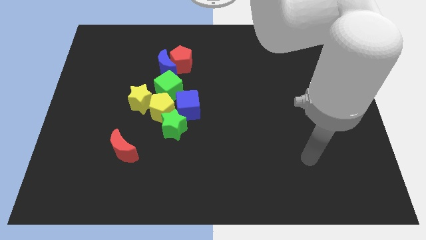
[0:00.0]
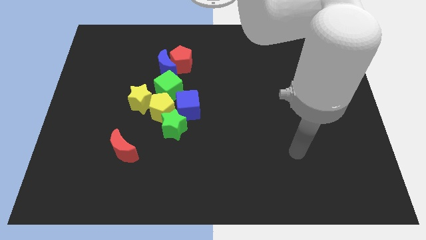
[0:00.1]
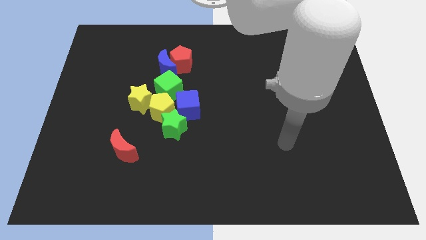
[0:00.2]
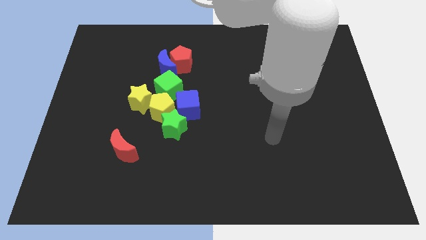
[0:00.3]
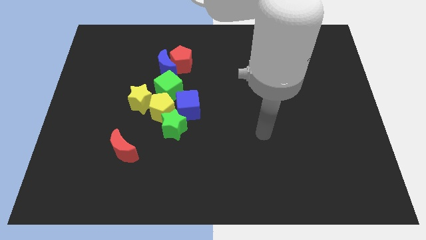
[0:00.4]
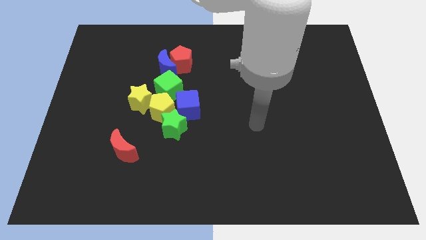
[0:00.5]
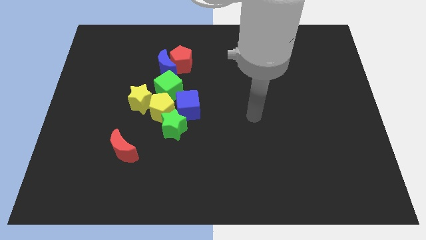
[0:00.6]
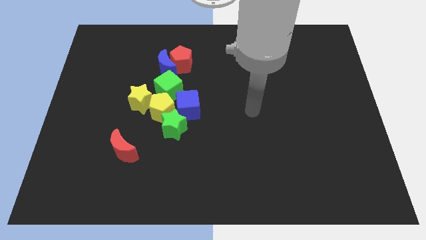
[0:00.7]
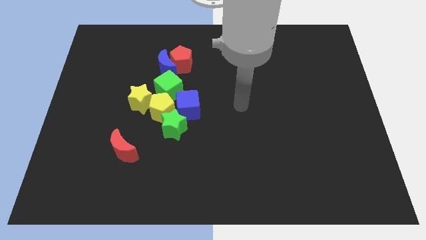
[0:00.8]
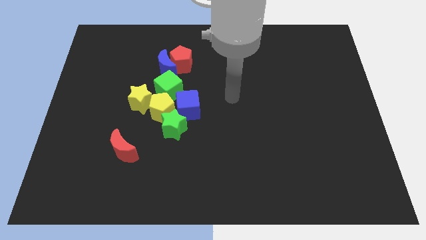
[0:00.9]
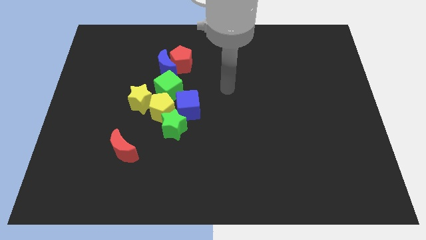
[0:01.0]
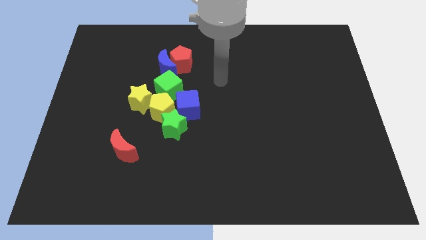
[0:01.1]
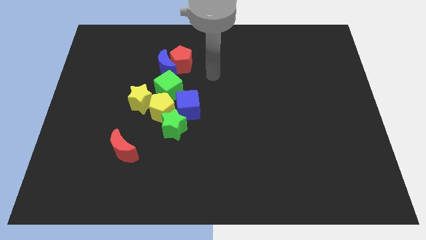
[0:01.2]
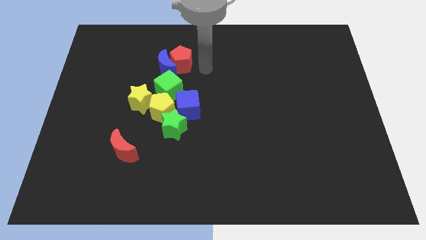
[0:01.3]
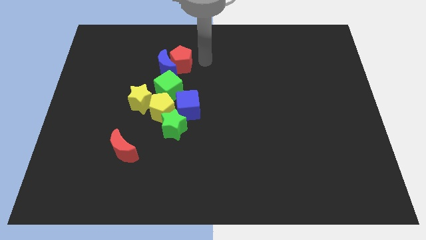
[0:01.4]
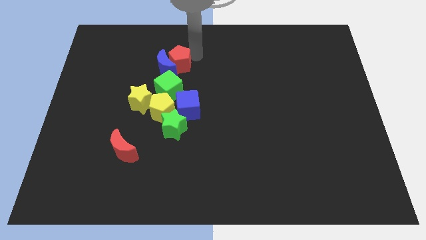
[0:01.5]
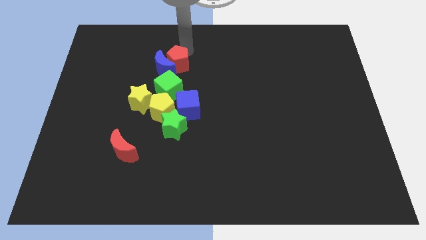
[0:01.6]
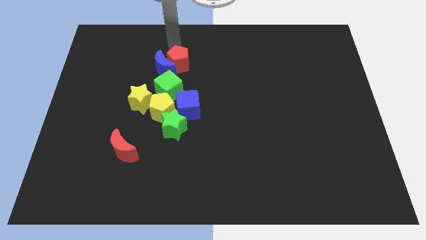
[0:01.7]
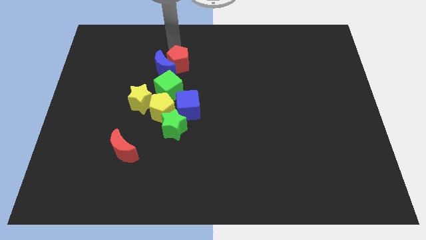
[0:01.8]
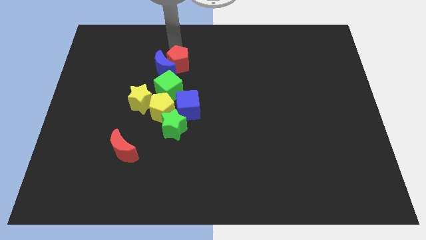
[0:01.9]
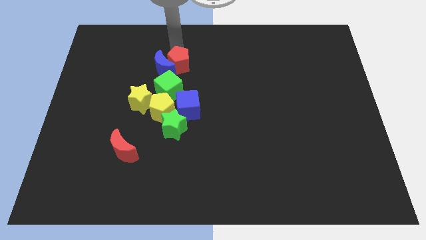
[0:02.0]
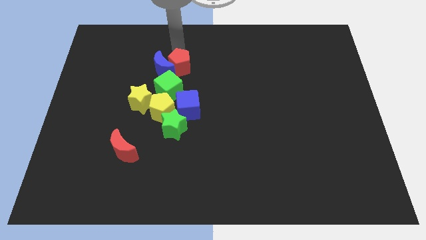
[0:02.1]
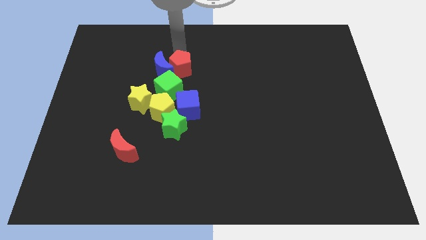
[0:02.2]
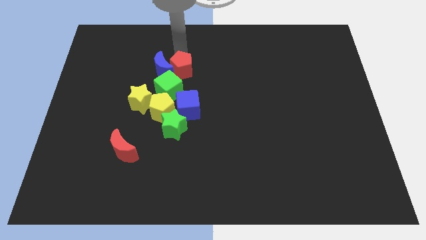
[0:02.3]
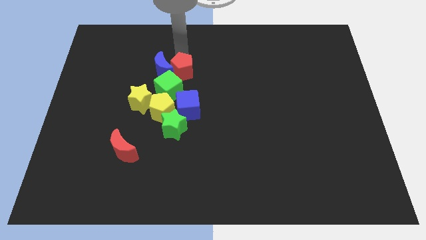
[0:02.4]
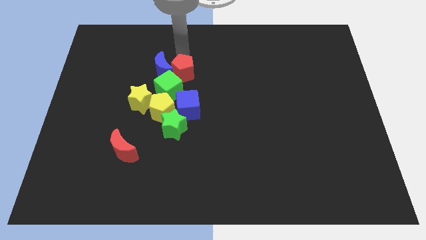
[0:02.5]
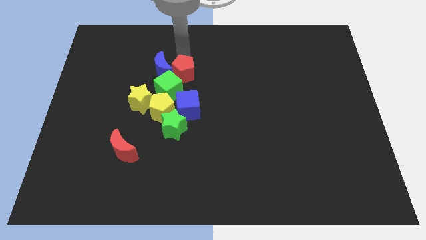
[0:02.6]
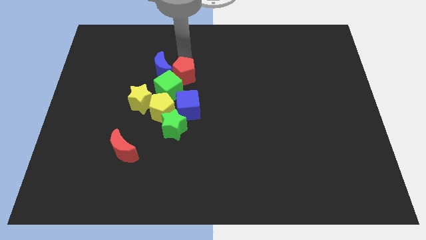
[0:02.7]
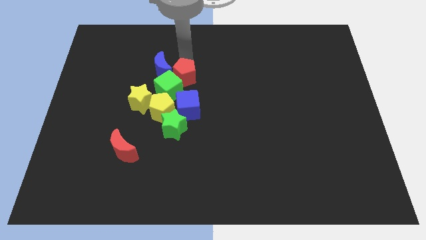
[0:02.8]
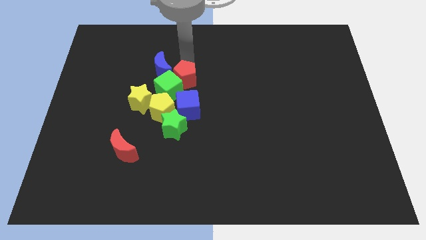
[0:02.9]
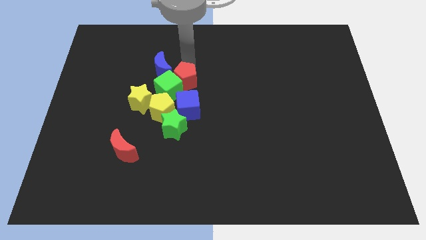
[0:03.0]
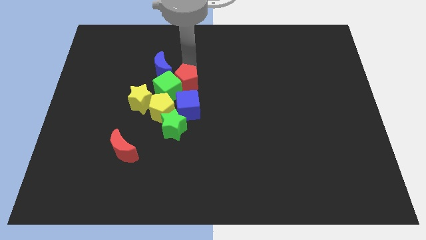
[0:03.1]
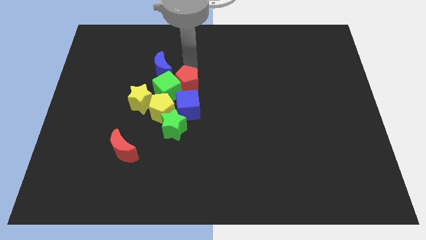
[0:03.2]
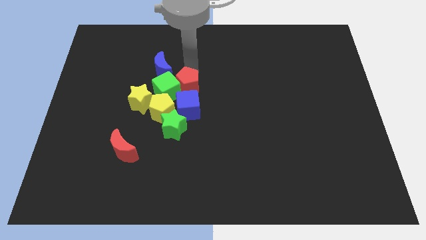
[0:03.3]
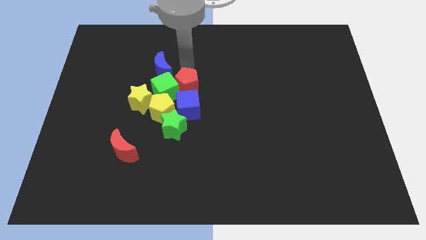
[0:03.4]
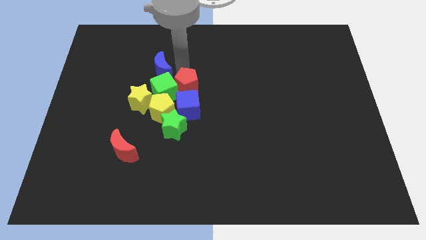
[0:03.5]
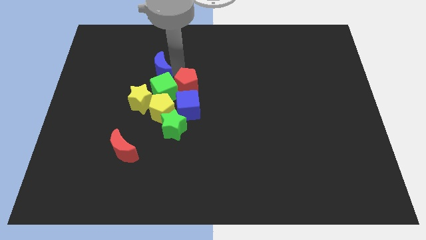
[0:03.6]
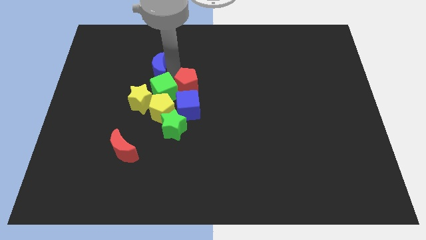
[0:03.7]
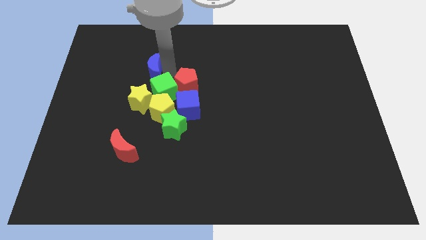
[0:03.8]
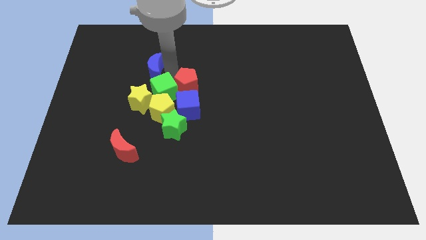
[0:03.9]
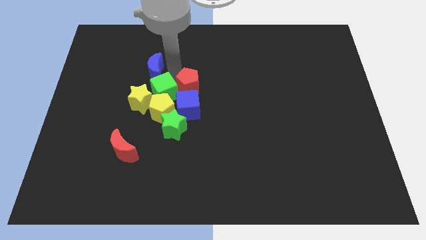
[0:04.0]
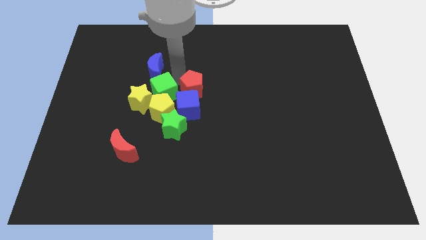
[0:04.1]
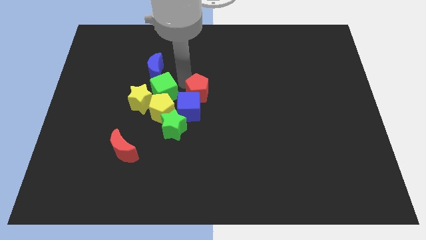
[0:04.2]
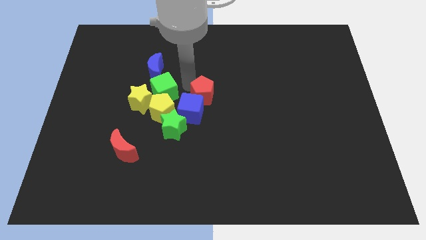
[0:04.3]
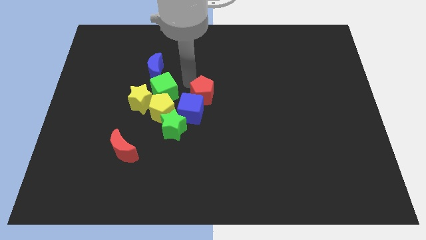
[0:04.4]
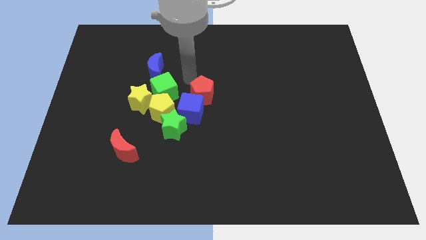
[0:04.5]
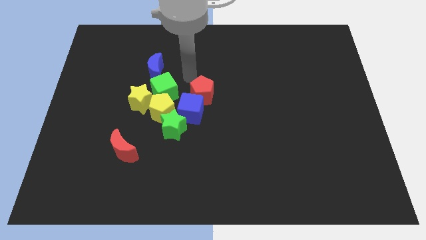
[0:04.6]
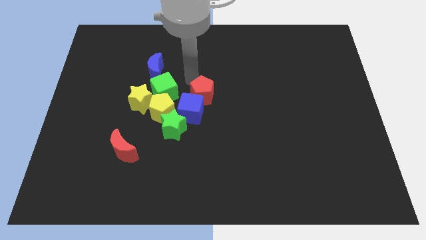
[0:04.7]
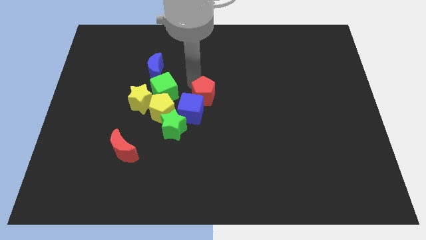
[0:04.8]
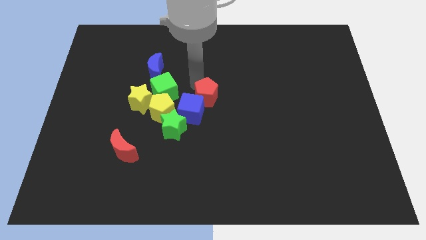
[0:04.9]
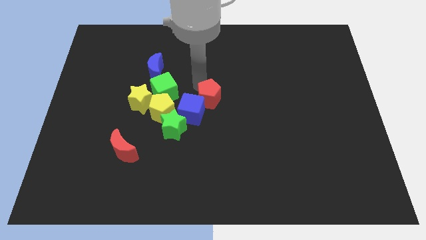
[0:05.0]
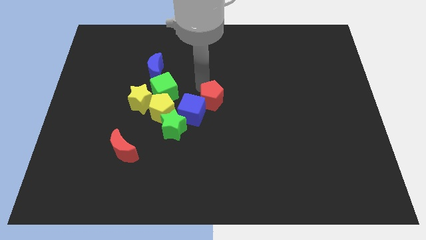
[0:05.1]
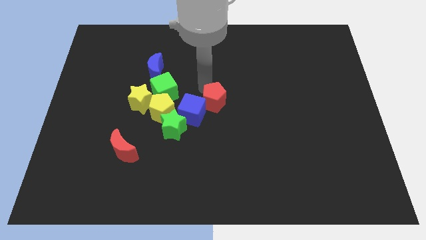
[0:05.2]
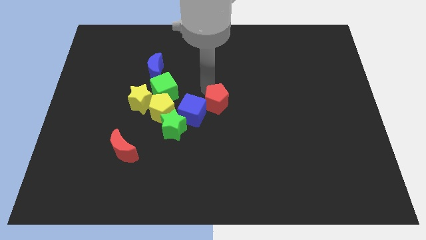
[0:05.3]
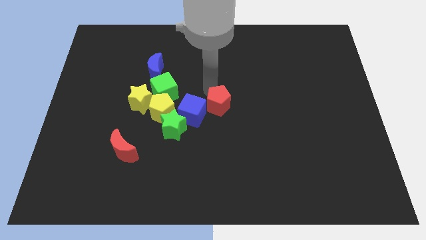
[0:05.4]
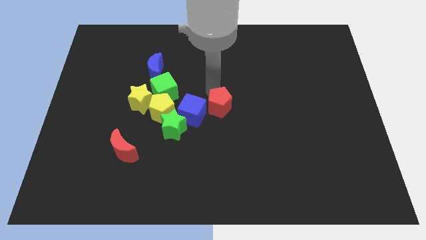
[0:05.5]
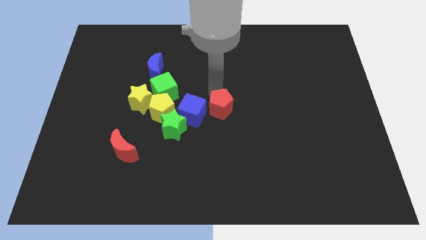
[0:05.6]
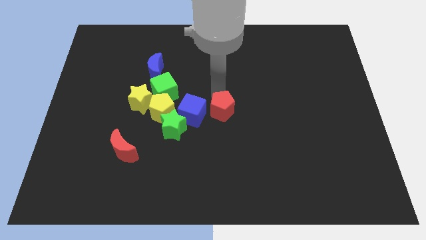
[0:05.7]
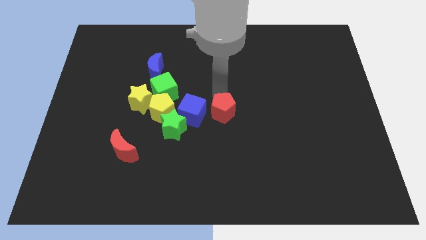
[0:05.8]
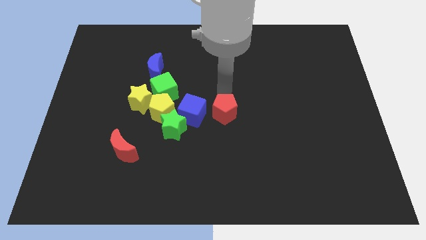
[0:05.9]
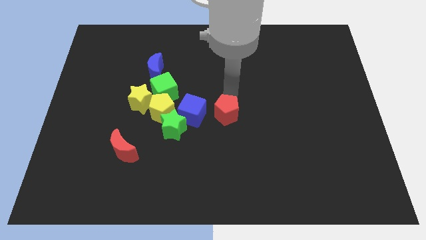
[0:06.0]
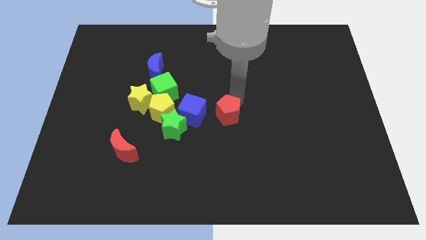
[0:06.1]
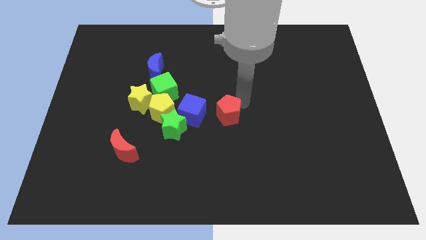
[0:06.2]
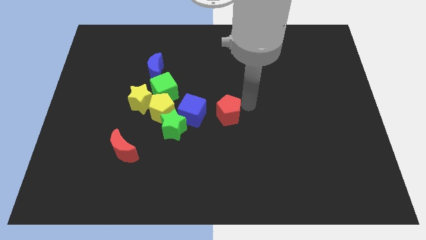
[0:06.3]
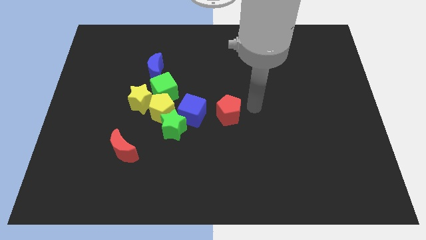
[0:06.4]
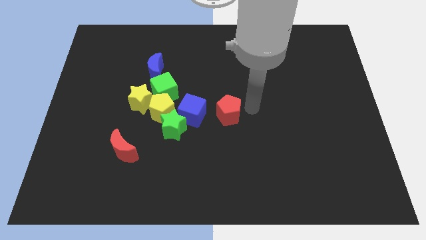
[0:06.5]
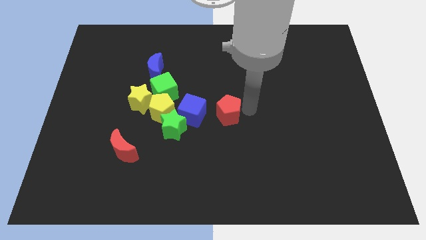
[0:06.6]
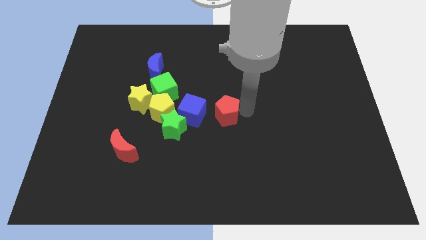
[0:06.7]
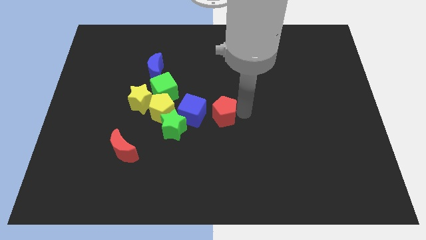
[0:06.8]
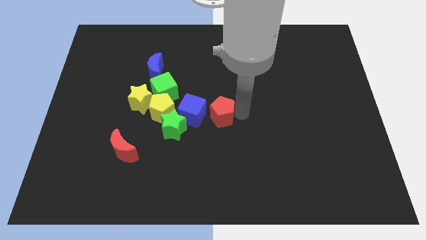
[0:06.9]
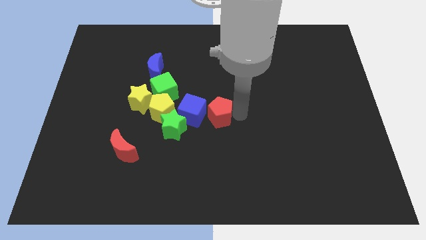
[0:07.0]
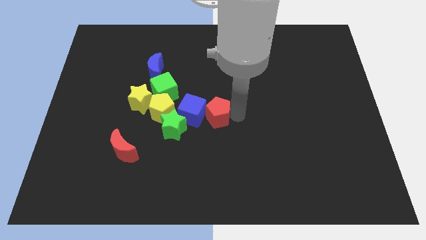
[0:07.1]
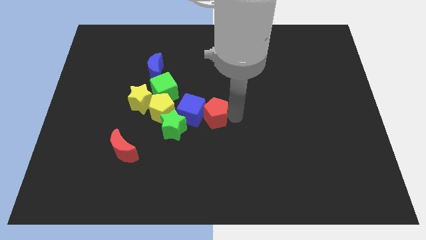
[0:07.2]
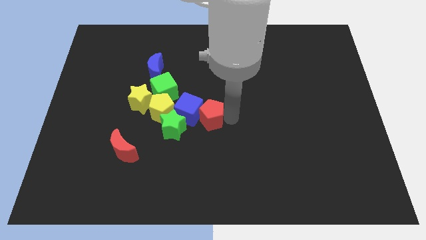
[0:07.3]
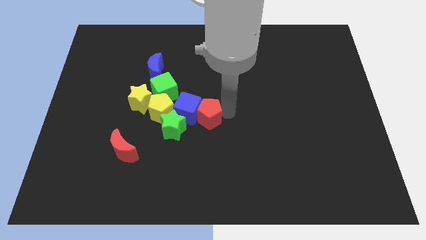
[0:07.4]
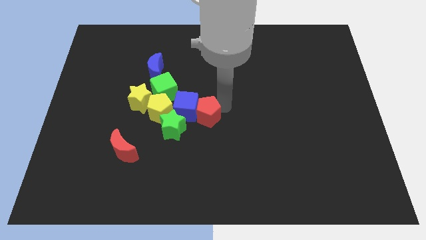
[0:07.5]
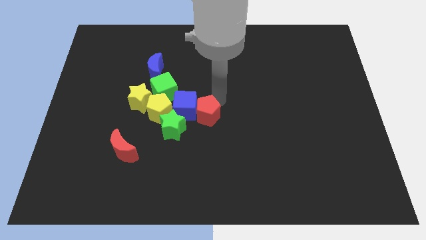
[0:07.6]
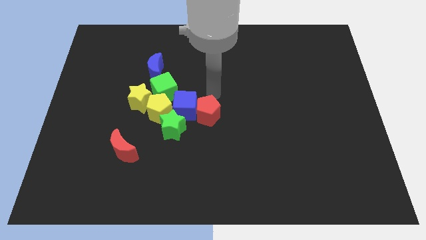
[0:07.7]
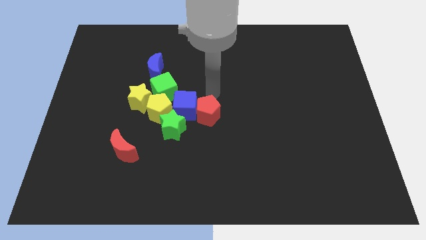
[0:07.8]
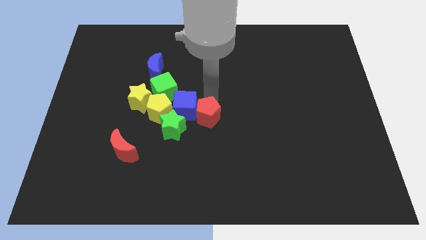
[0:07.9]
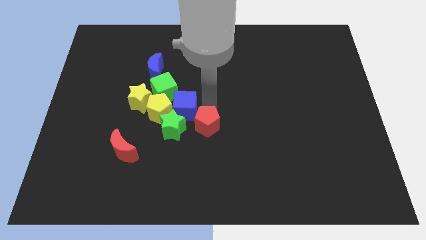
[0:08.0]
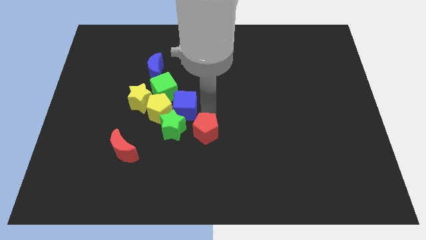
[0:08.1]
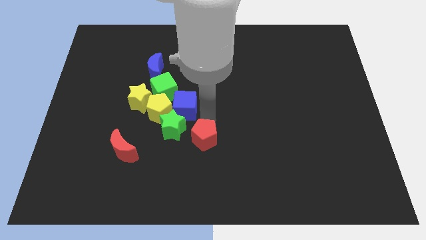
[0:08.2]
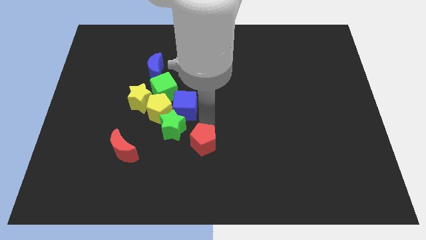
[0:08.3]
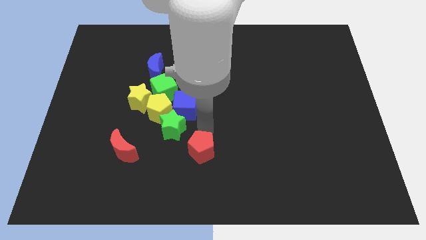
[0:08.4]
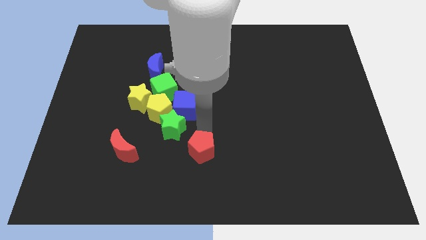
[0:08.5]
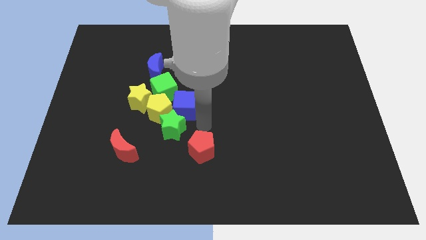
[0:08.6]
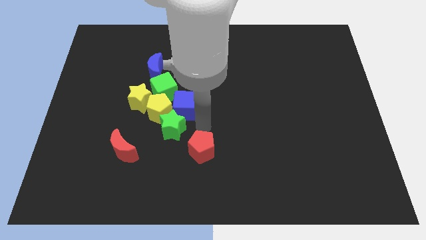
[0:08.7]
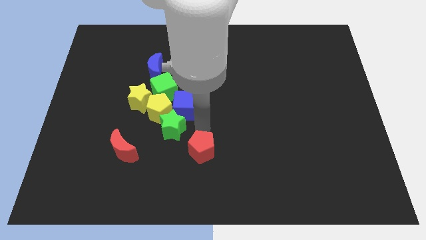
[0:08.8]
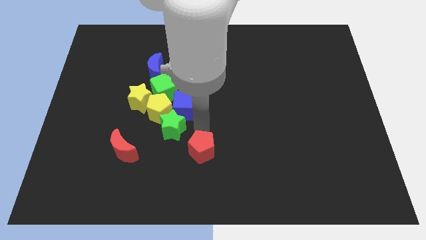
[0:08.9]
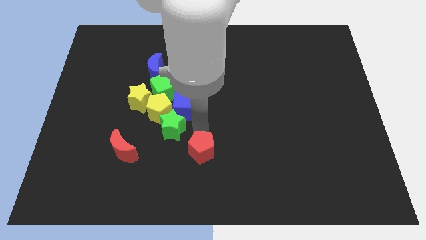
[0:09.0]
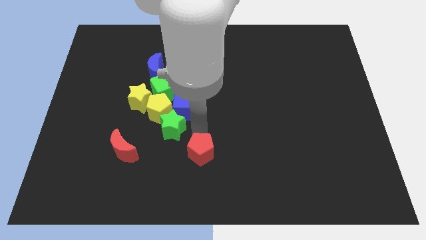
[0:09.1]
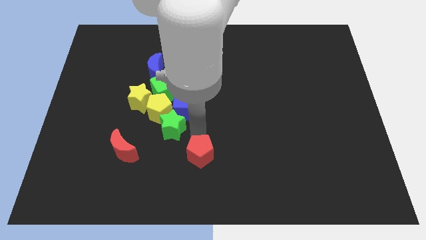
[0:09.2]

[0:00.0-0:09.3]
push the red pentagon to the bottom side
